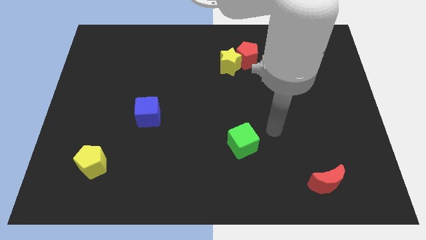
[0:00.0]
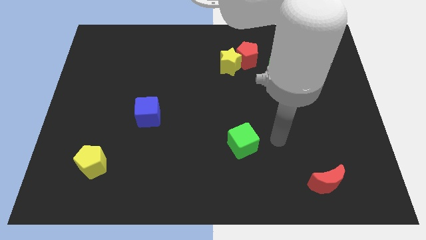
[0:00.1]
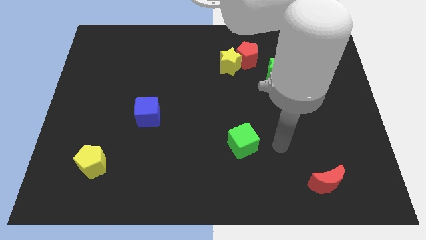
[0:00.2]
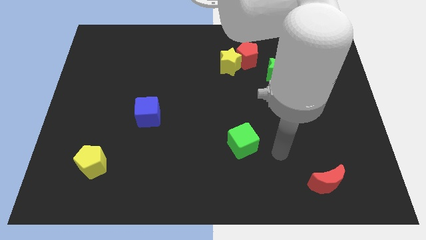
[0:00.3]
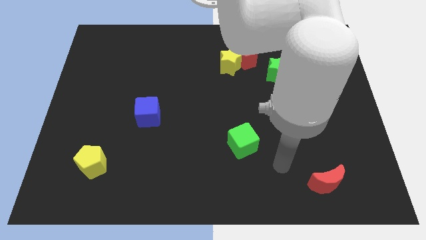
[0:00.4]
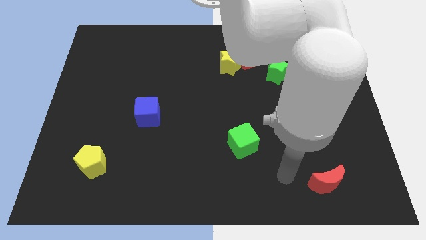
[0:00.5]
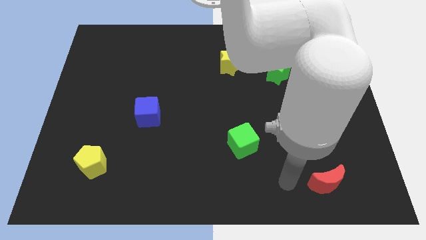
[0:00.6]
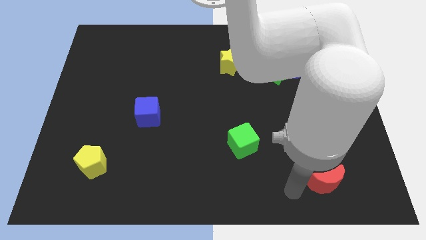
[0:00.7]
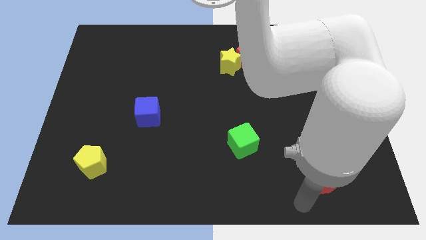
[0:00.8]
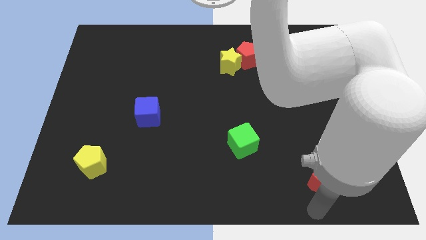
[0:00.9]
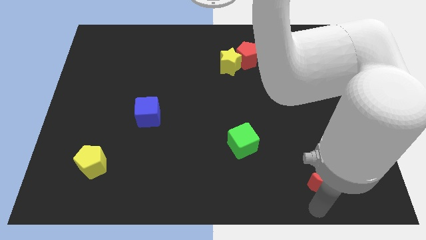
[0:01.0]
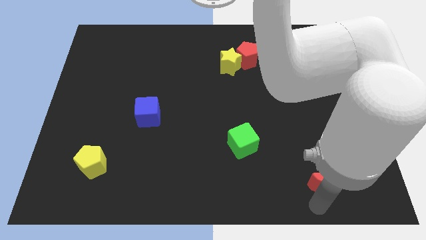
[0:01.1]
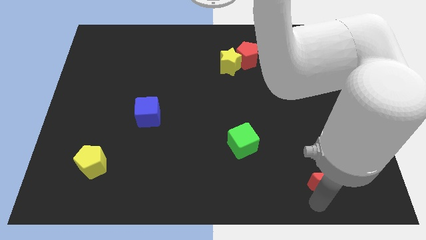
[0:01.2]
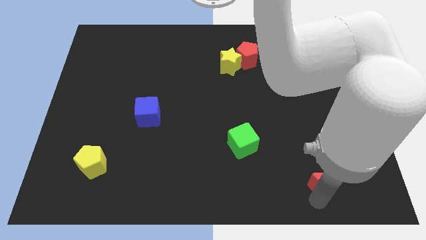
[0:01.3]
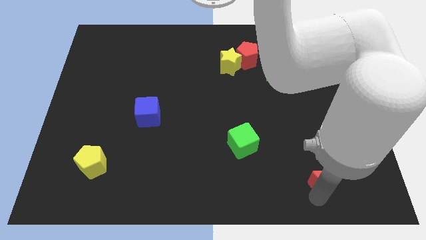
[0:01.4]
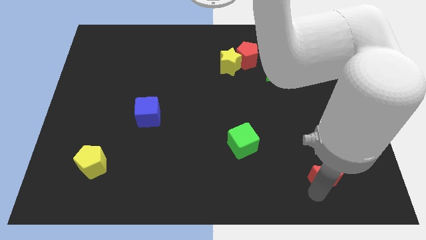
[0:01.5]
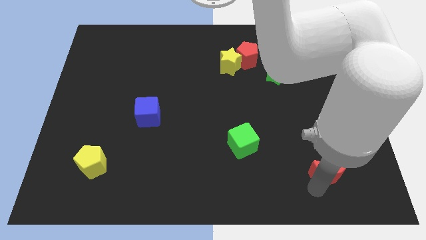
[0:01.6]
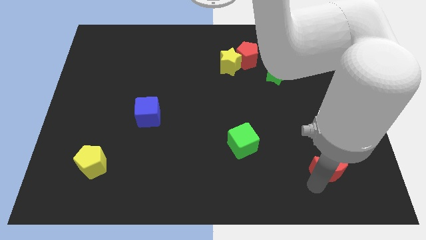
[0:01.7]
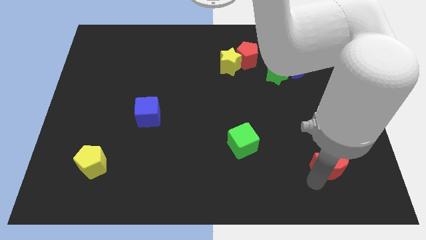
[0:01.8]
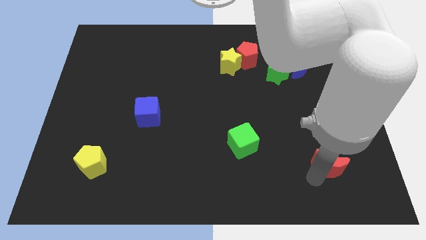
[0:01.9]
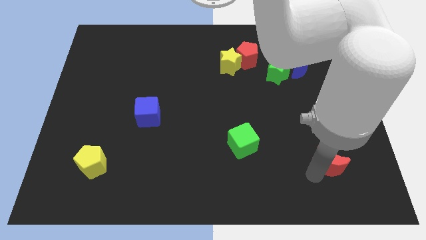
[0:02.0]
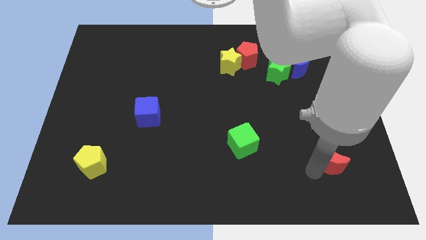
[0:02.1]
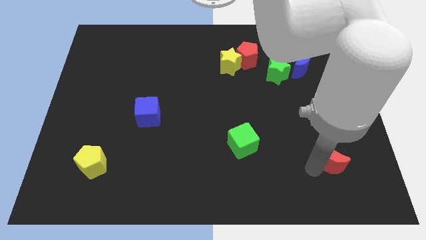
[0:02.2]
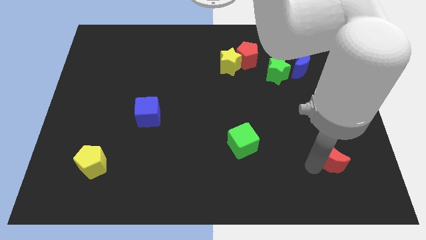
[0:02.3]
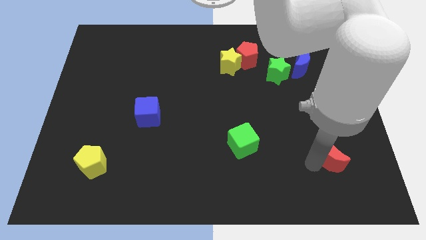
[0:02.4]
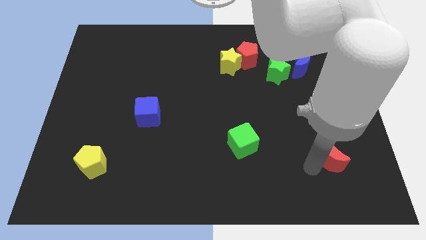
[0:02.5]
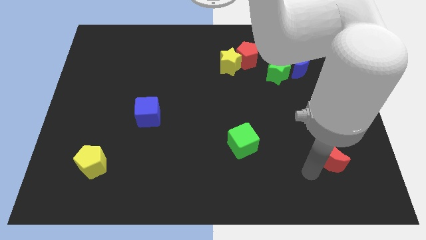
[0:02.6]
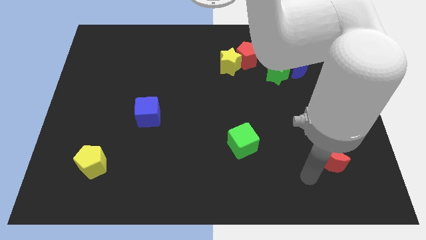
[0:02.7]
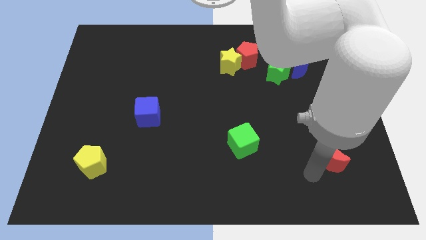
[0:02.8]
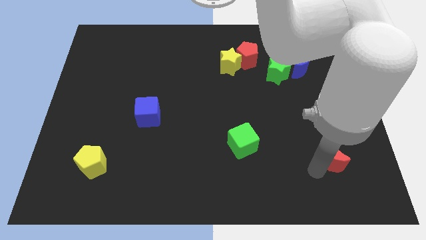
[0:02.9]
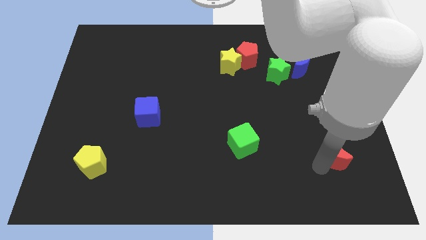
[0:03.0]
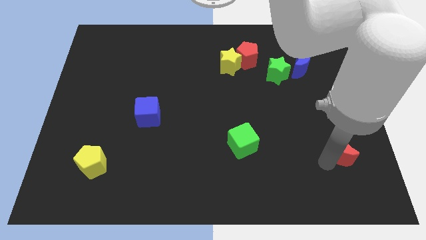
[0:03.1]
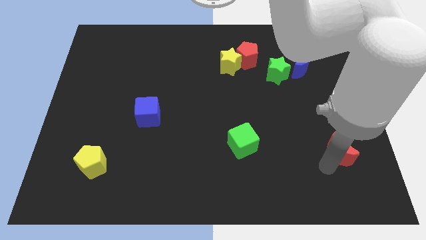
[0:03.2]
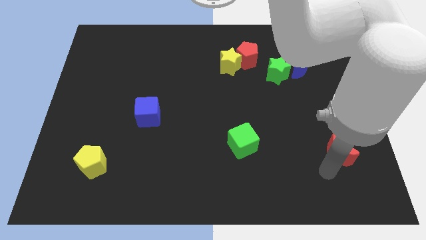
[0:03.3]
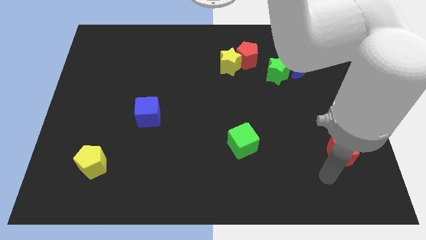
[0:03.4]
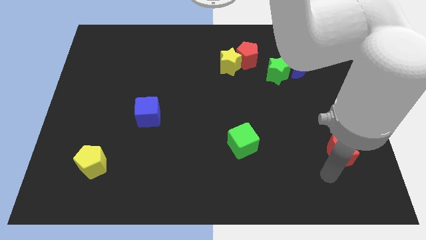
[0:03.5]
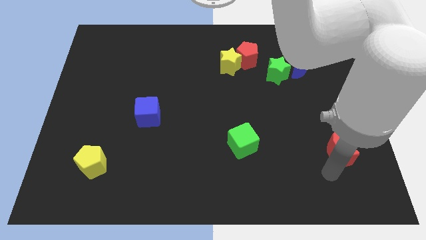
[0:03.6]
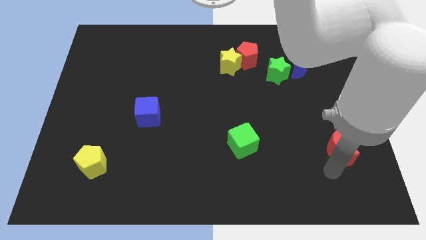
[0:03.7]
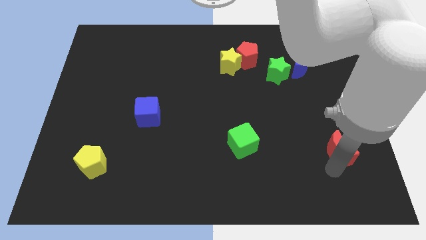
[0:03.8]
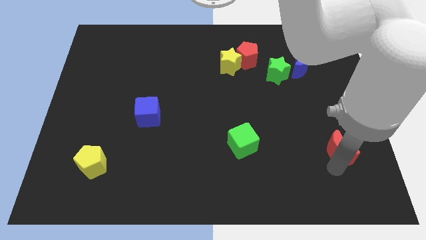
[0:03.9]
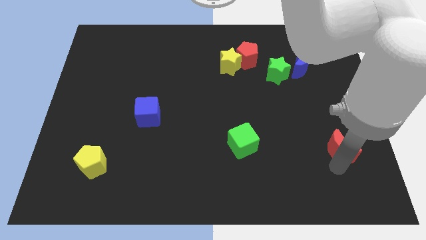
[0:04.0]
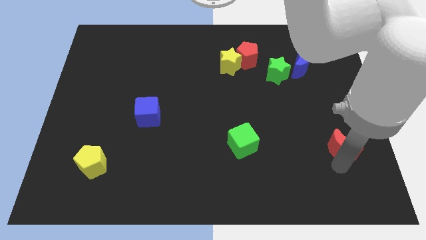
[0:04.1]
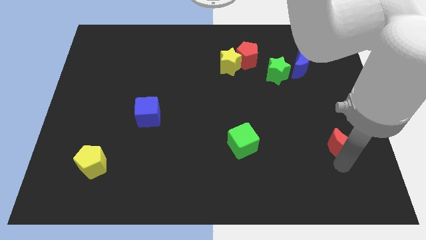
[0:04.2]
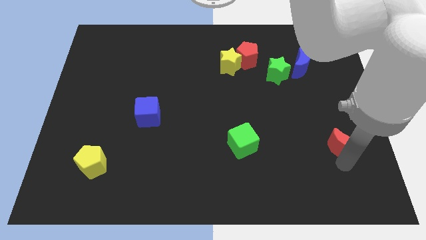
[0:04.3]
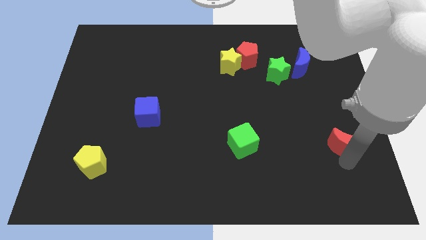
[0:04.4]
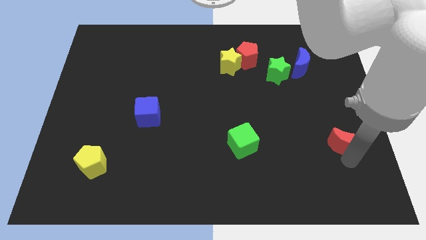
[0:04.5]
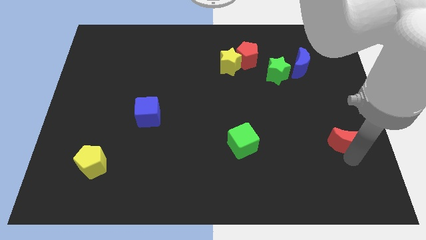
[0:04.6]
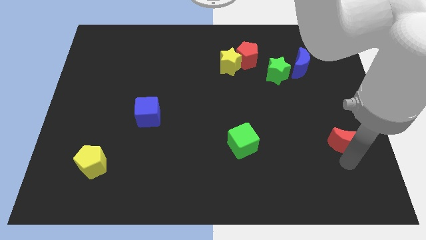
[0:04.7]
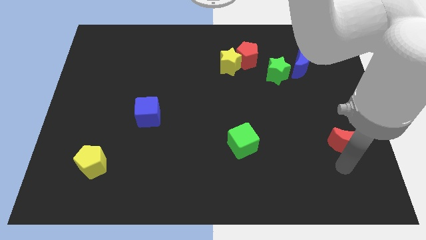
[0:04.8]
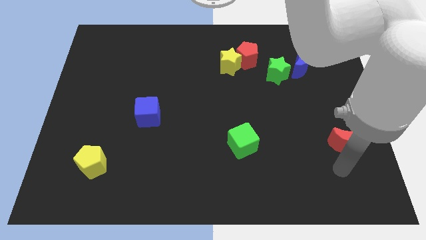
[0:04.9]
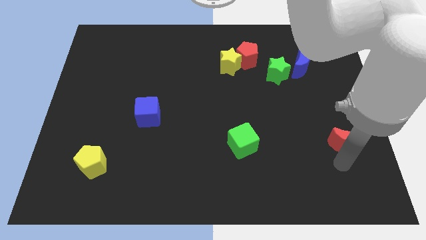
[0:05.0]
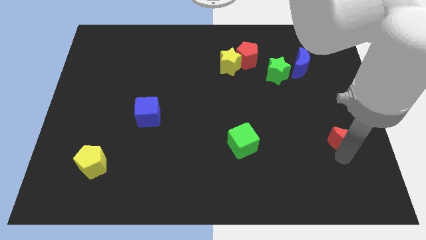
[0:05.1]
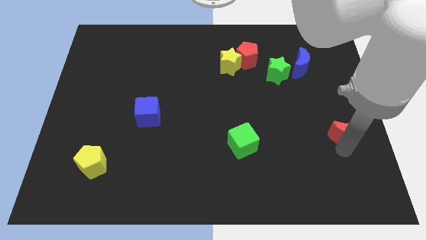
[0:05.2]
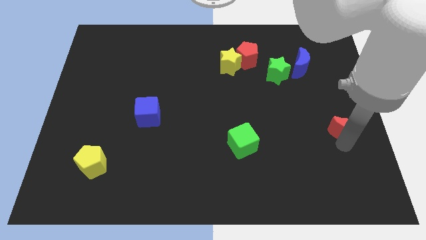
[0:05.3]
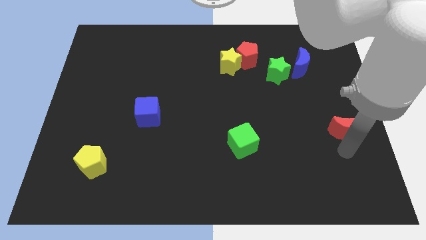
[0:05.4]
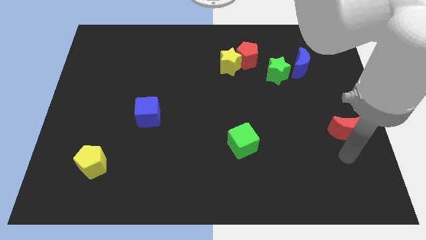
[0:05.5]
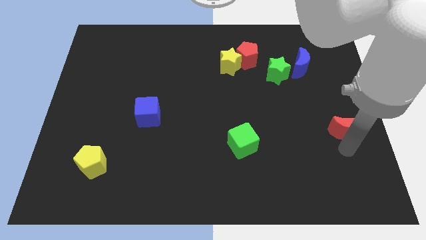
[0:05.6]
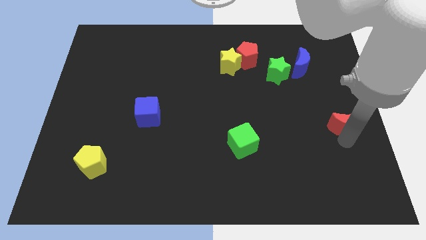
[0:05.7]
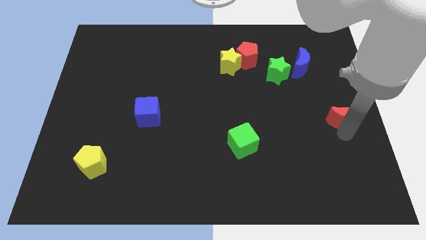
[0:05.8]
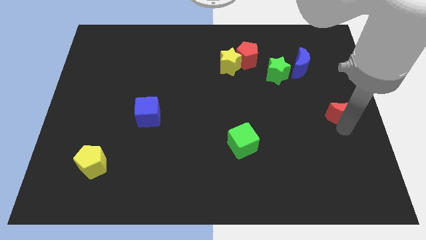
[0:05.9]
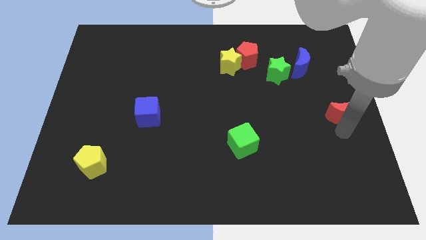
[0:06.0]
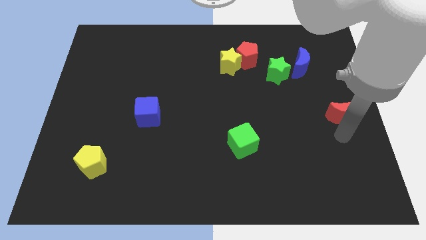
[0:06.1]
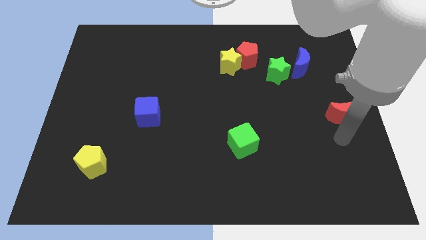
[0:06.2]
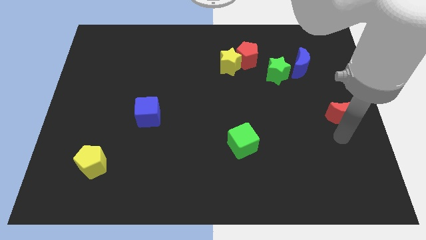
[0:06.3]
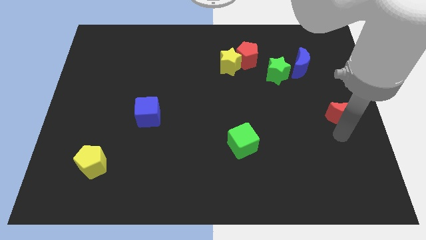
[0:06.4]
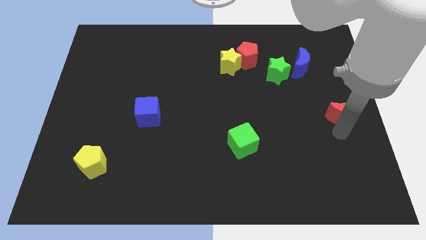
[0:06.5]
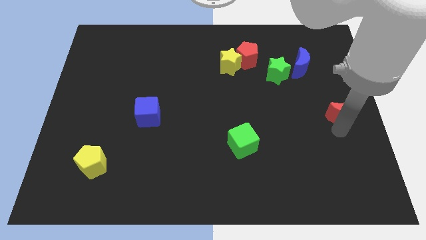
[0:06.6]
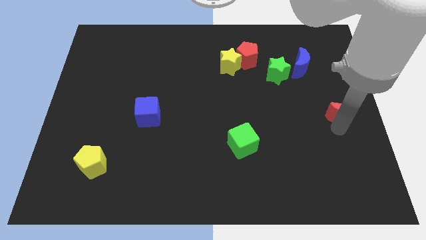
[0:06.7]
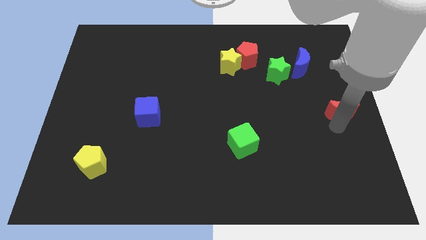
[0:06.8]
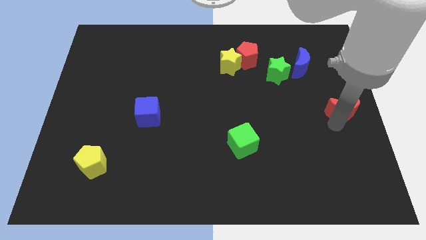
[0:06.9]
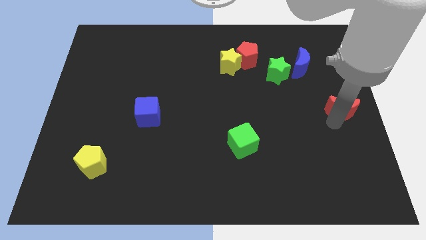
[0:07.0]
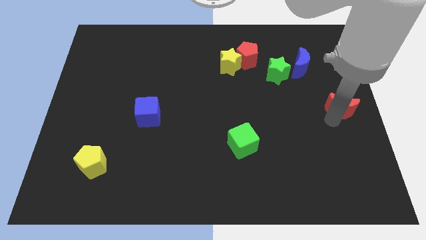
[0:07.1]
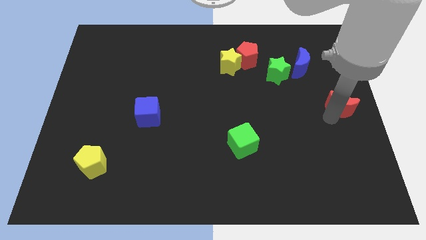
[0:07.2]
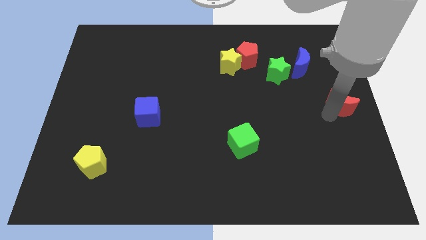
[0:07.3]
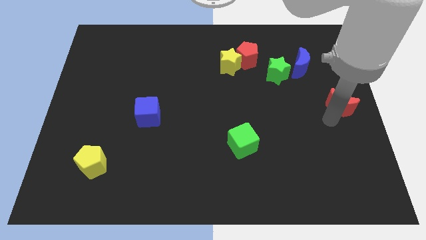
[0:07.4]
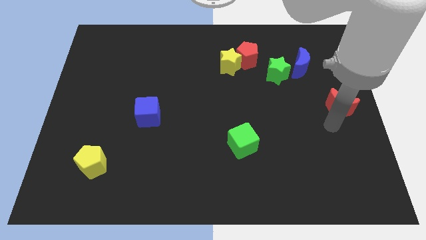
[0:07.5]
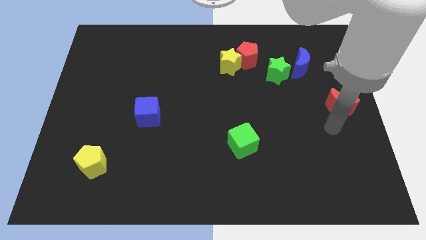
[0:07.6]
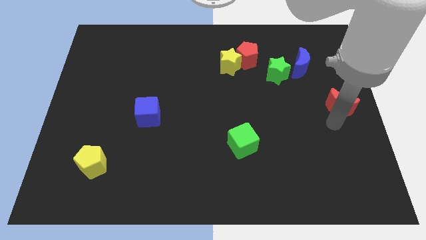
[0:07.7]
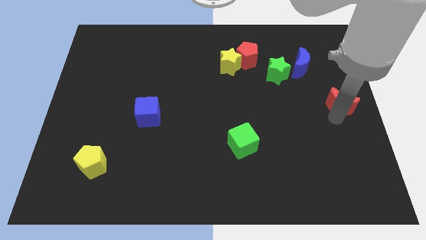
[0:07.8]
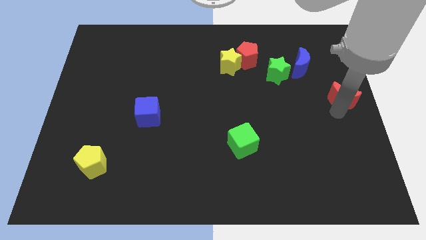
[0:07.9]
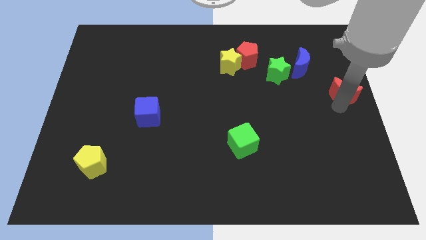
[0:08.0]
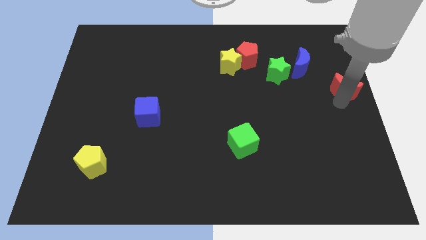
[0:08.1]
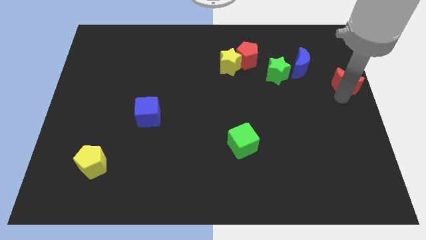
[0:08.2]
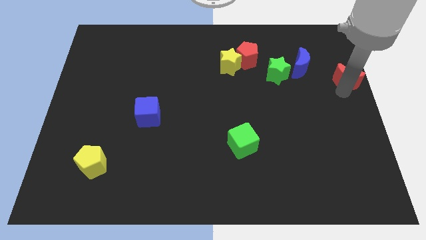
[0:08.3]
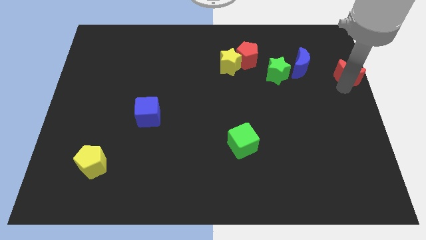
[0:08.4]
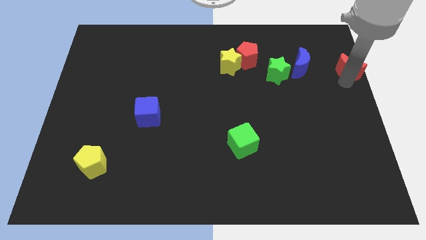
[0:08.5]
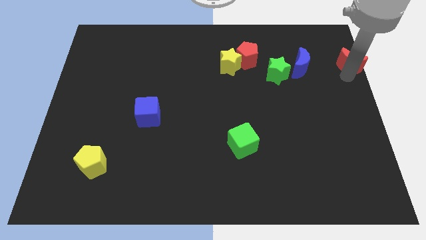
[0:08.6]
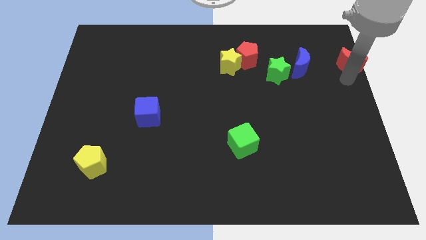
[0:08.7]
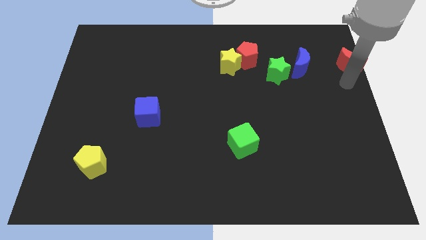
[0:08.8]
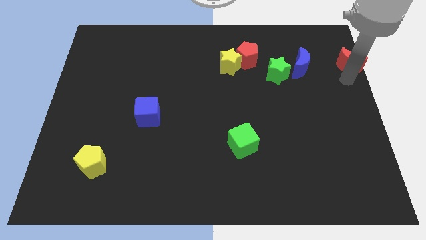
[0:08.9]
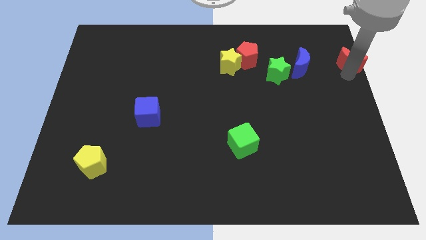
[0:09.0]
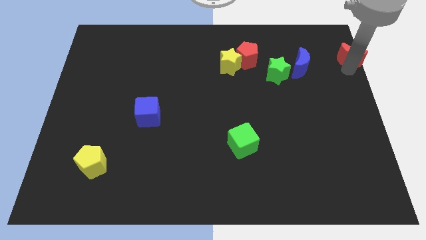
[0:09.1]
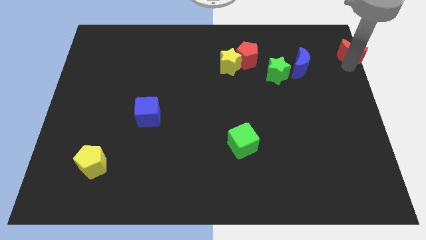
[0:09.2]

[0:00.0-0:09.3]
put the red moon to the upper right corner
